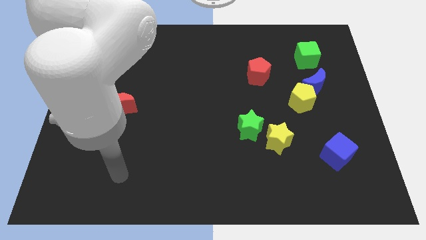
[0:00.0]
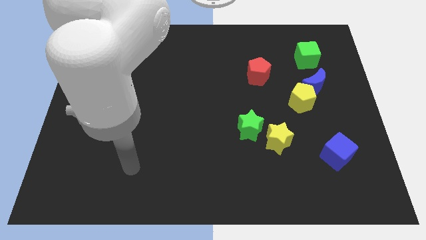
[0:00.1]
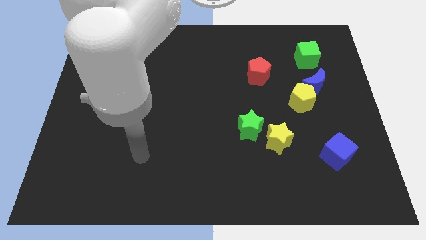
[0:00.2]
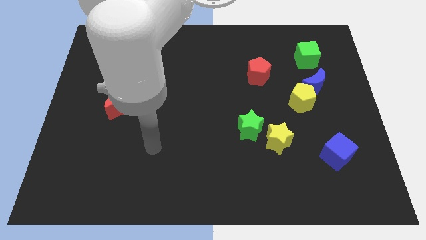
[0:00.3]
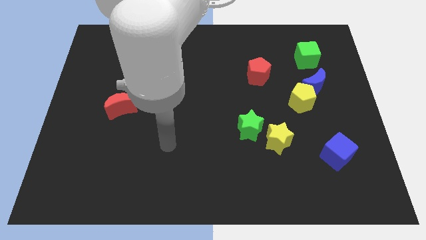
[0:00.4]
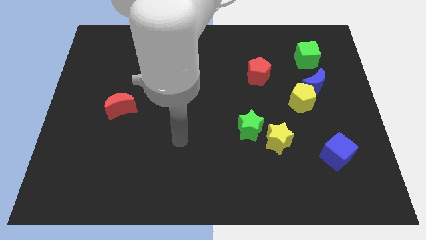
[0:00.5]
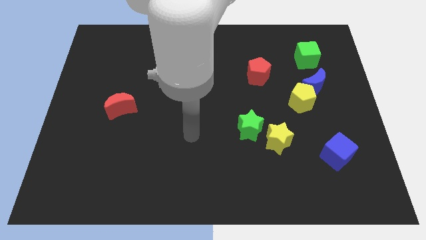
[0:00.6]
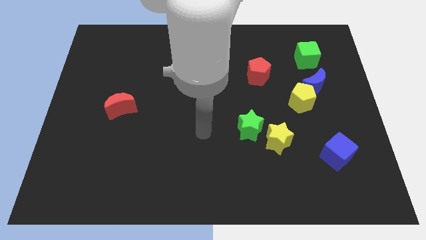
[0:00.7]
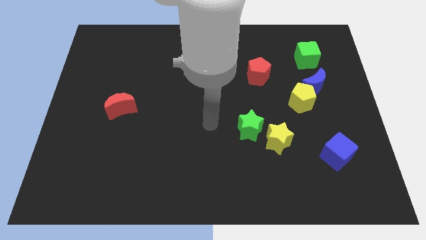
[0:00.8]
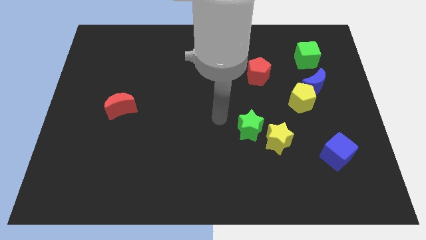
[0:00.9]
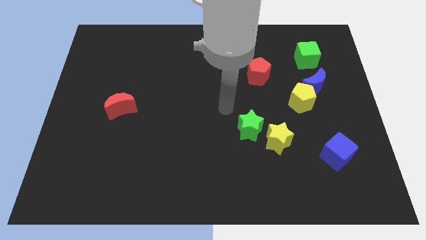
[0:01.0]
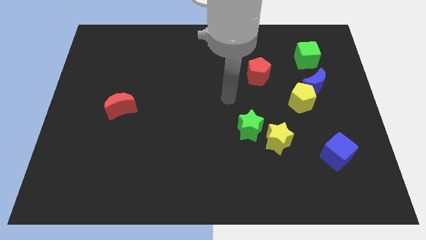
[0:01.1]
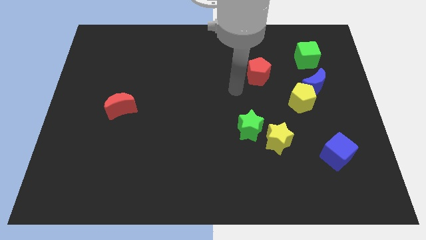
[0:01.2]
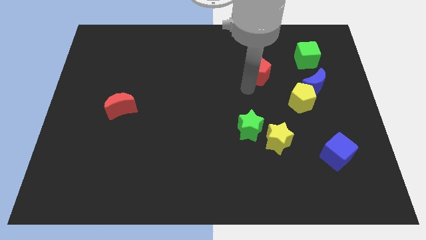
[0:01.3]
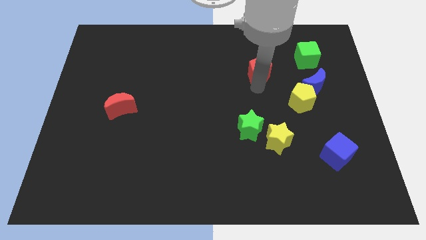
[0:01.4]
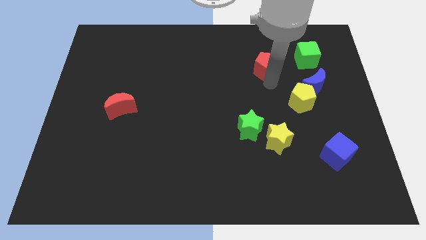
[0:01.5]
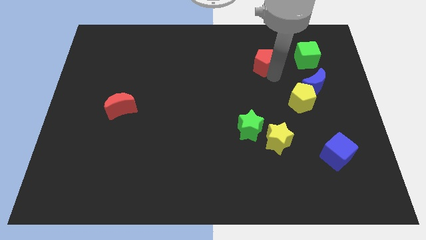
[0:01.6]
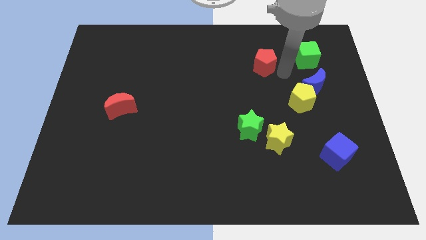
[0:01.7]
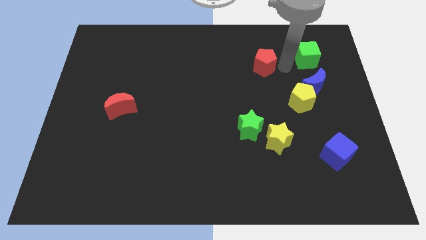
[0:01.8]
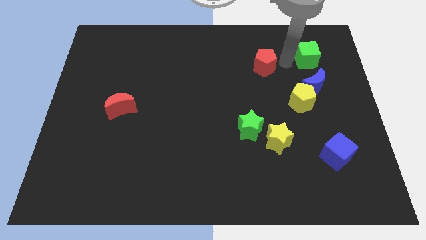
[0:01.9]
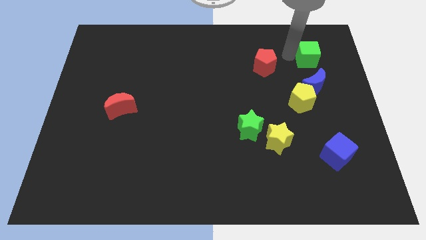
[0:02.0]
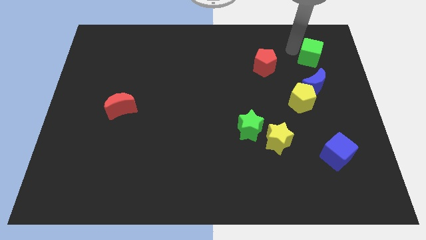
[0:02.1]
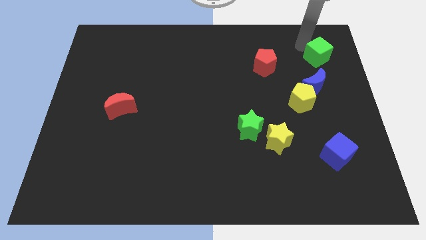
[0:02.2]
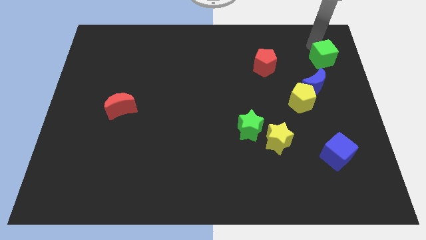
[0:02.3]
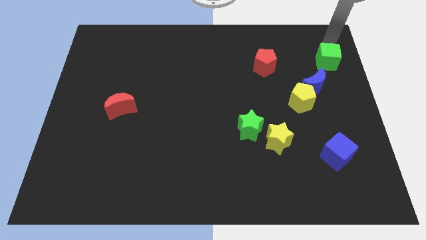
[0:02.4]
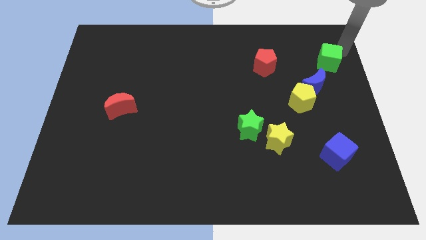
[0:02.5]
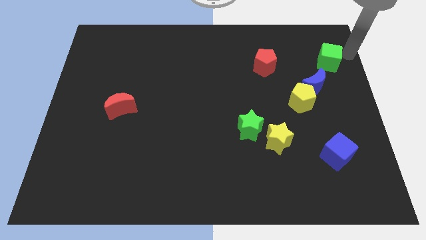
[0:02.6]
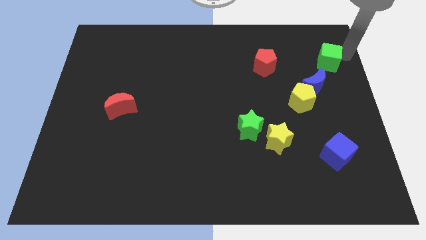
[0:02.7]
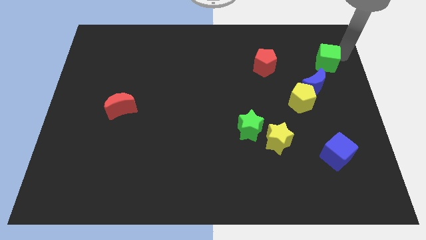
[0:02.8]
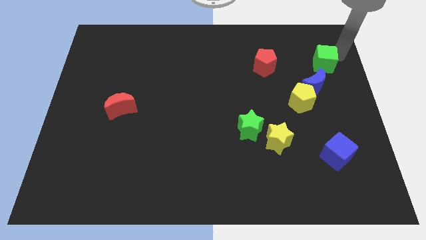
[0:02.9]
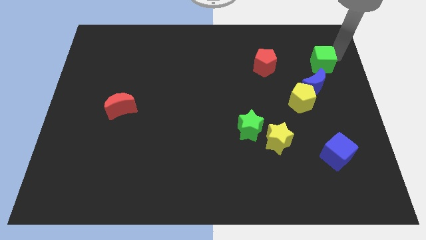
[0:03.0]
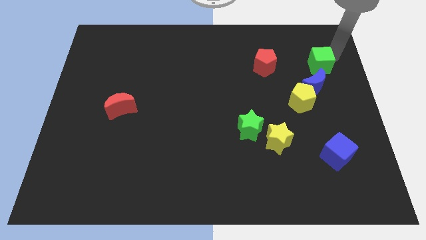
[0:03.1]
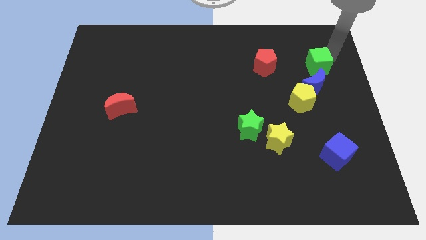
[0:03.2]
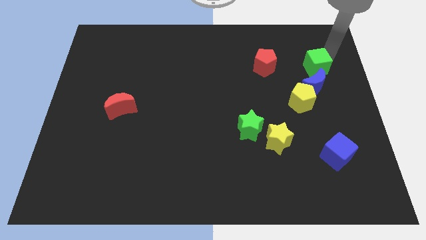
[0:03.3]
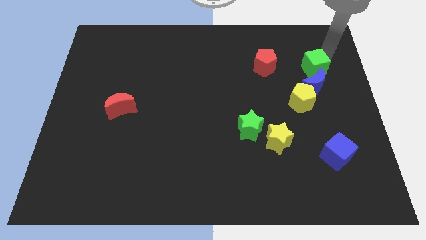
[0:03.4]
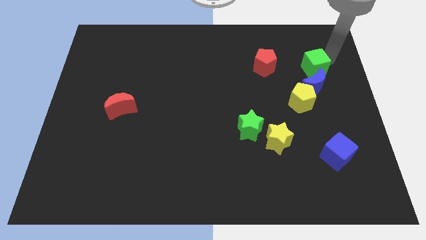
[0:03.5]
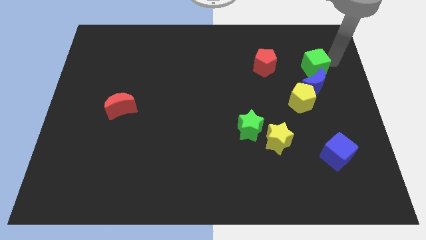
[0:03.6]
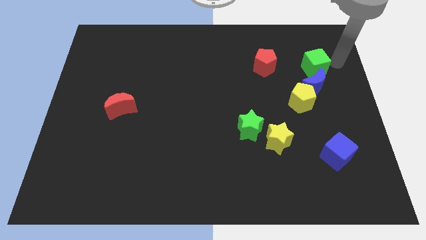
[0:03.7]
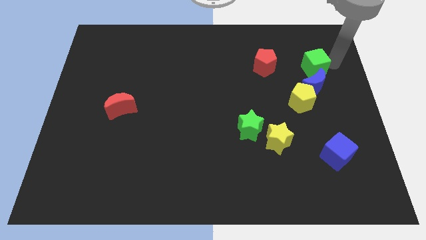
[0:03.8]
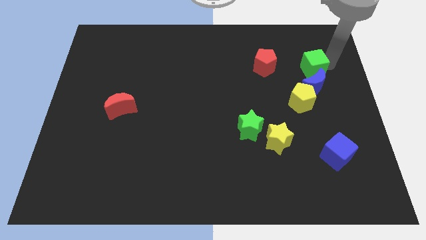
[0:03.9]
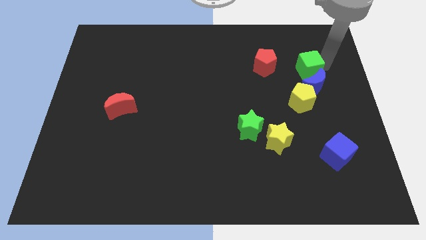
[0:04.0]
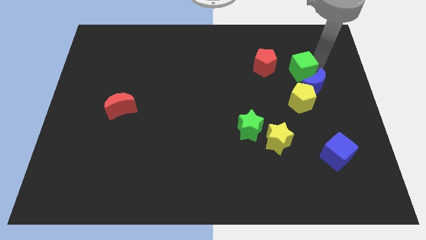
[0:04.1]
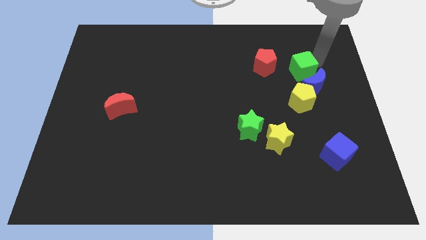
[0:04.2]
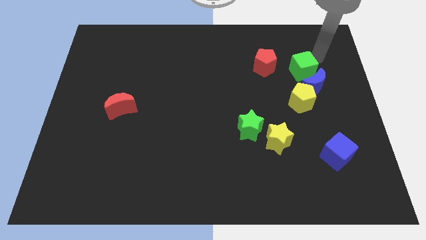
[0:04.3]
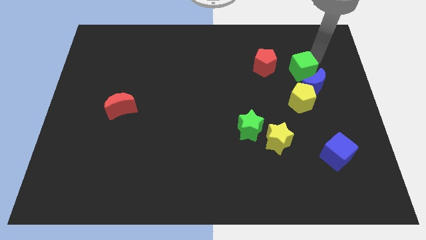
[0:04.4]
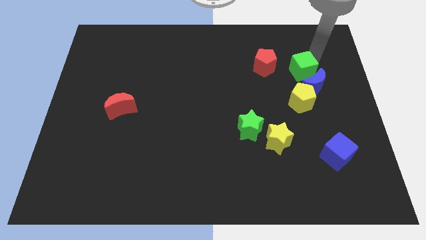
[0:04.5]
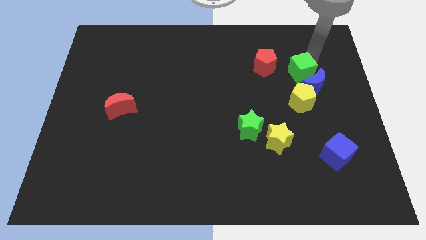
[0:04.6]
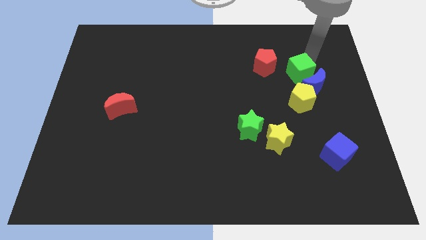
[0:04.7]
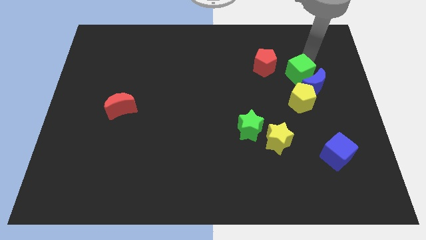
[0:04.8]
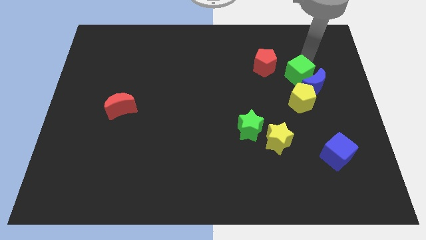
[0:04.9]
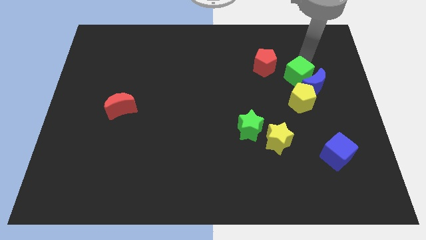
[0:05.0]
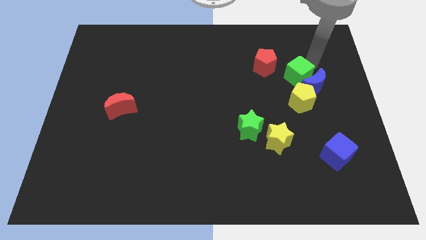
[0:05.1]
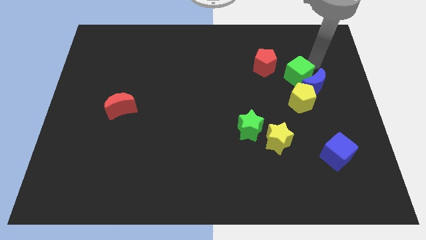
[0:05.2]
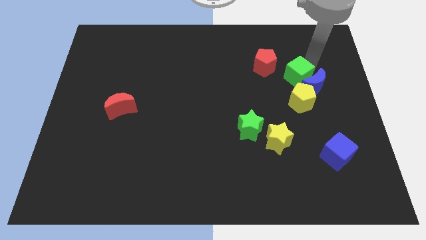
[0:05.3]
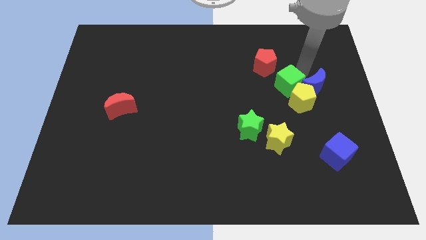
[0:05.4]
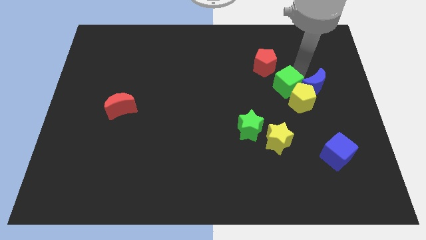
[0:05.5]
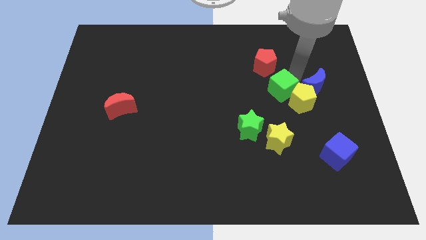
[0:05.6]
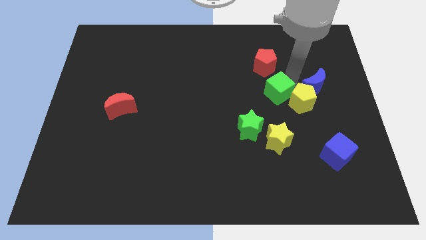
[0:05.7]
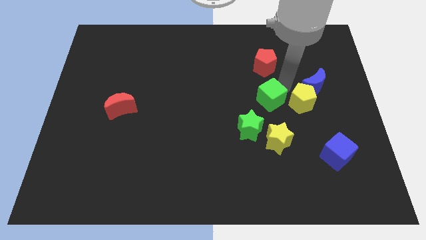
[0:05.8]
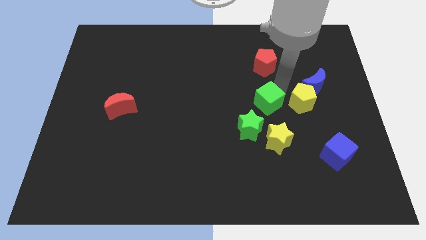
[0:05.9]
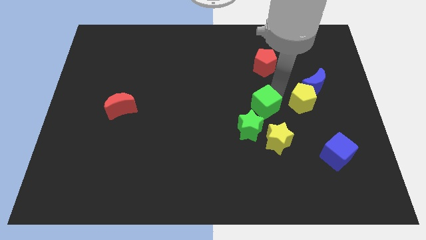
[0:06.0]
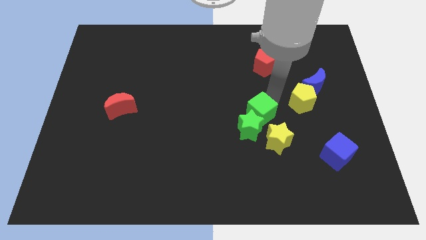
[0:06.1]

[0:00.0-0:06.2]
move the green cube downwards and to the left diagonally

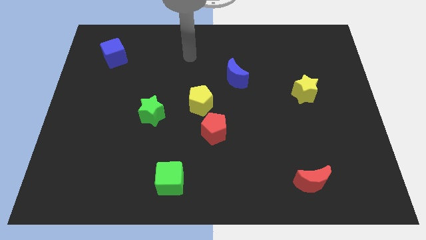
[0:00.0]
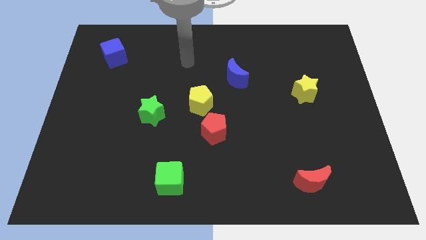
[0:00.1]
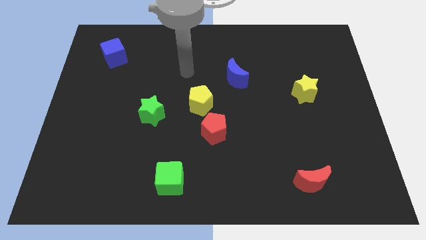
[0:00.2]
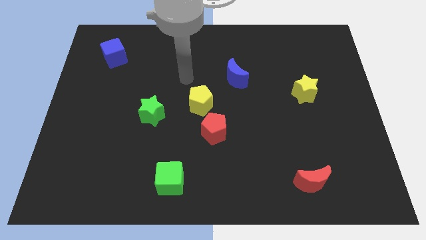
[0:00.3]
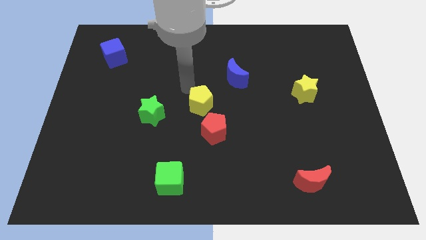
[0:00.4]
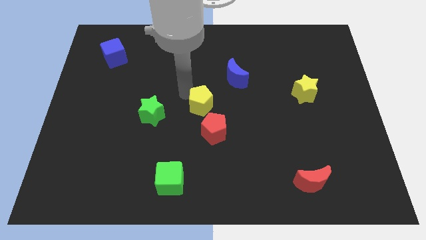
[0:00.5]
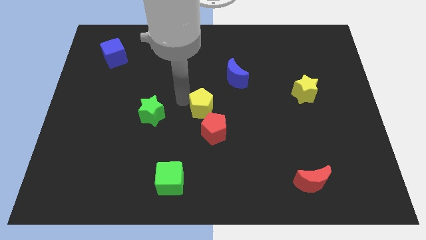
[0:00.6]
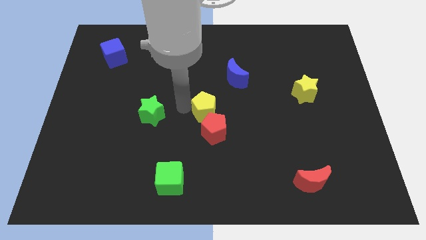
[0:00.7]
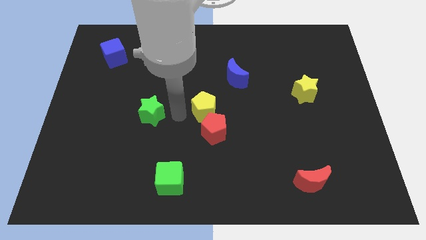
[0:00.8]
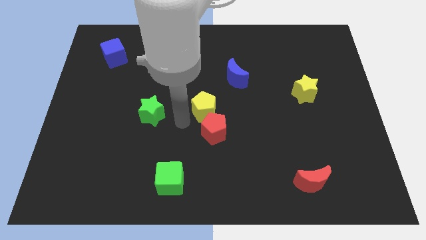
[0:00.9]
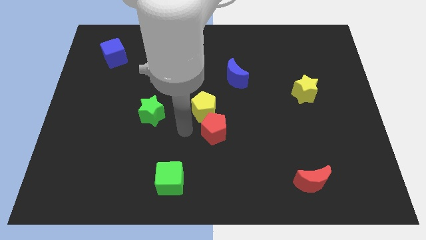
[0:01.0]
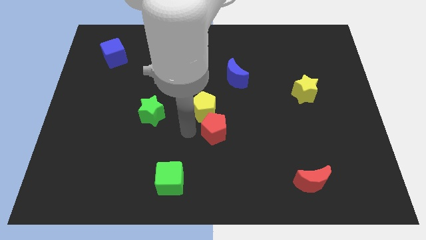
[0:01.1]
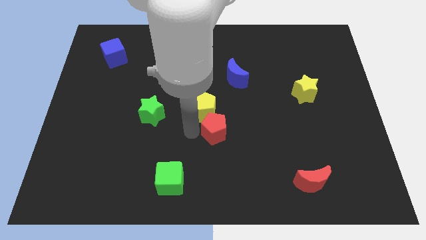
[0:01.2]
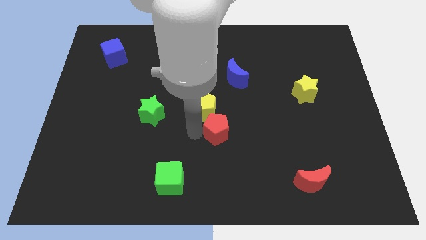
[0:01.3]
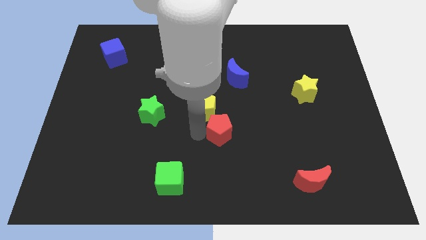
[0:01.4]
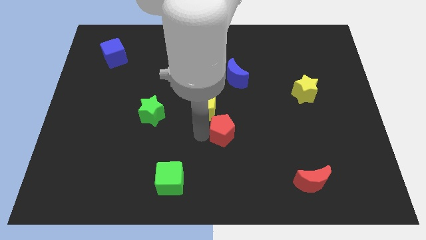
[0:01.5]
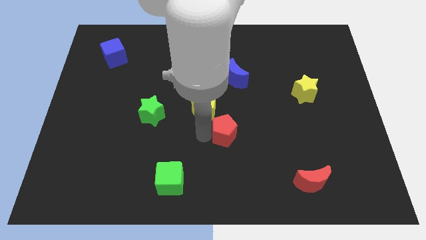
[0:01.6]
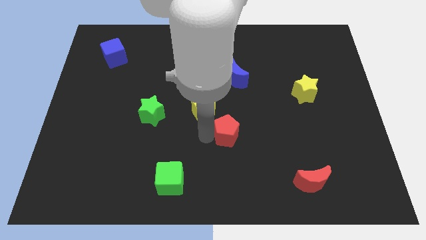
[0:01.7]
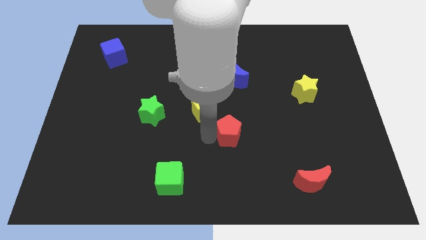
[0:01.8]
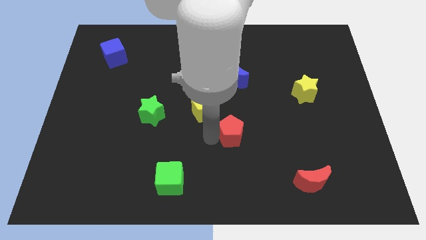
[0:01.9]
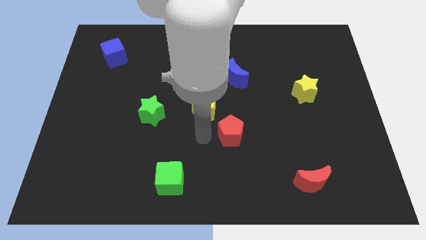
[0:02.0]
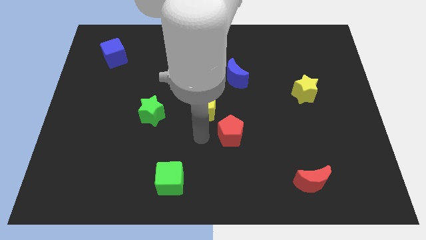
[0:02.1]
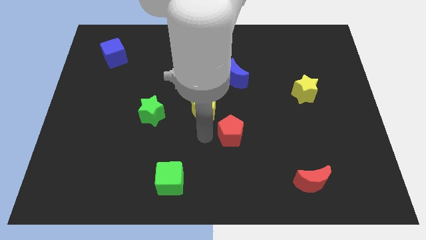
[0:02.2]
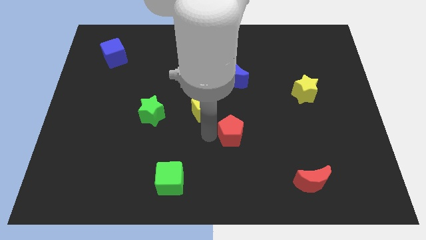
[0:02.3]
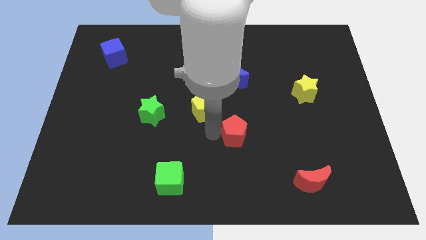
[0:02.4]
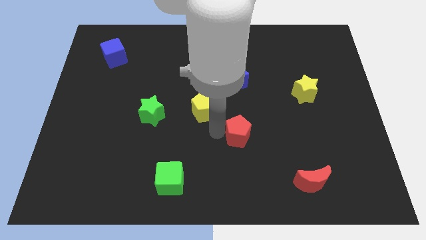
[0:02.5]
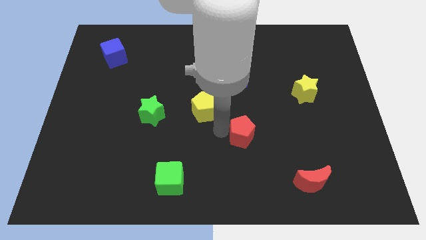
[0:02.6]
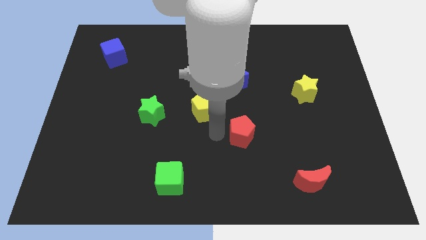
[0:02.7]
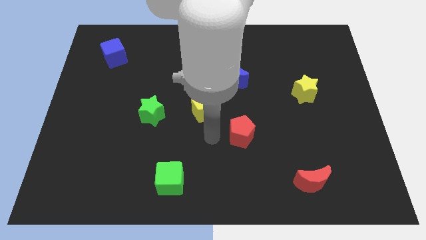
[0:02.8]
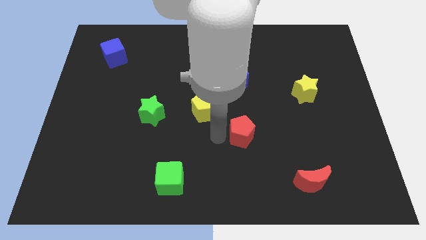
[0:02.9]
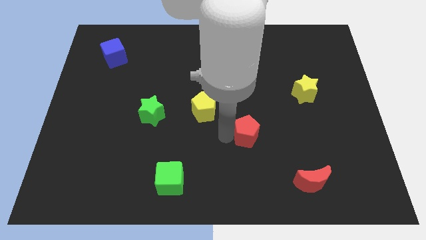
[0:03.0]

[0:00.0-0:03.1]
push the red pentagon a bit to the right
